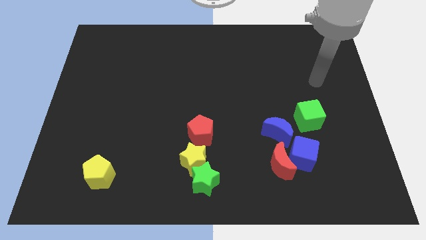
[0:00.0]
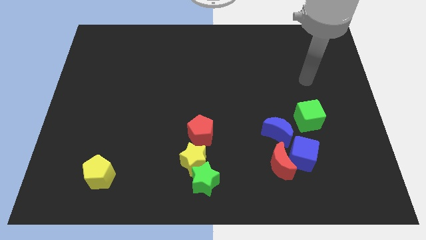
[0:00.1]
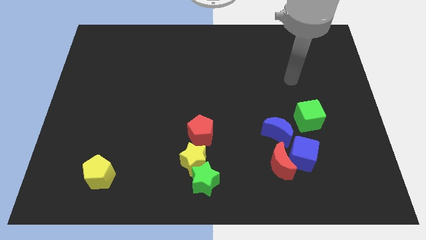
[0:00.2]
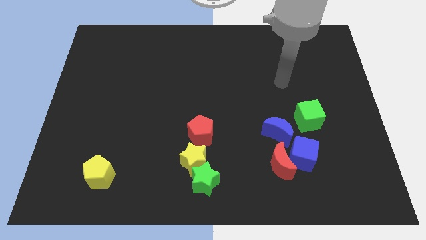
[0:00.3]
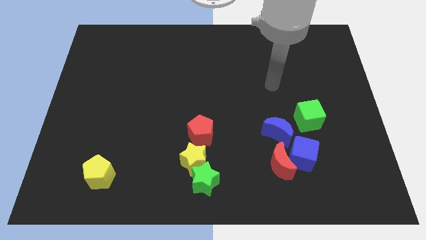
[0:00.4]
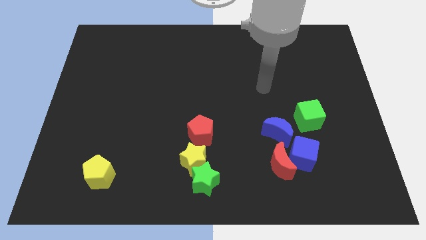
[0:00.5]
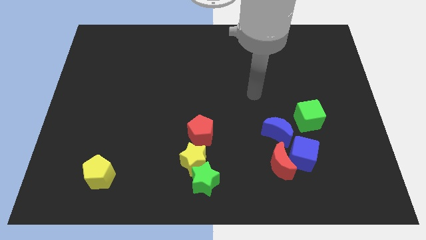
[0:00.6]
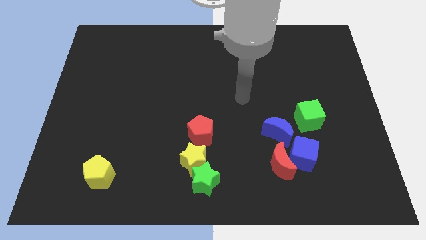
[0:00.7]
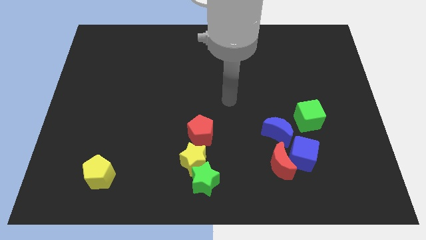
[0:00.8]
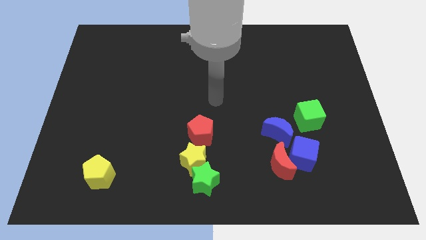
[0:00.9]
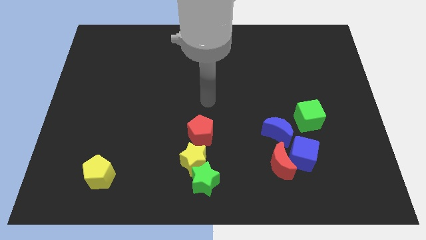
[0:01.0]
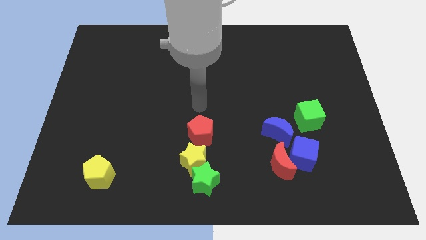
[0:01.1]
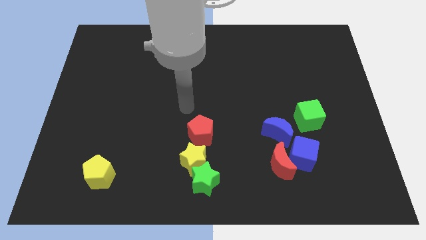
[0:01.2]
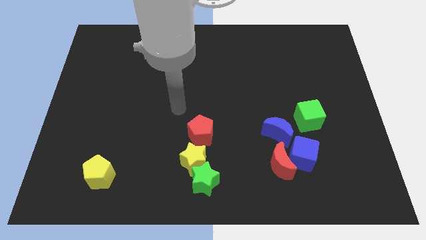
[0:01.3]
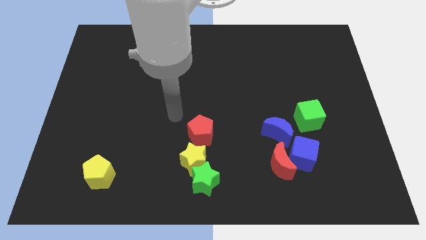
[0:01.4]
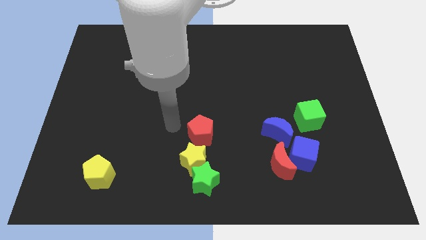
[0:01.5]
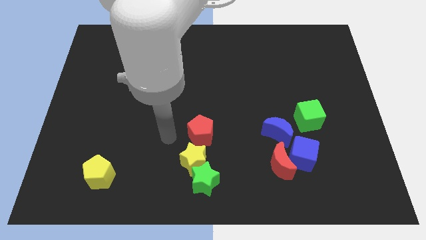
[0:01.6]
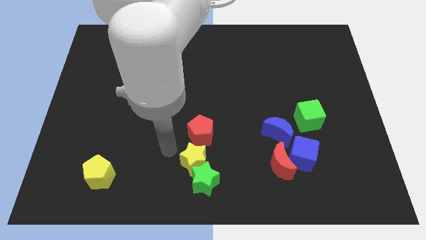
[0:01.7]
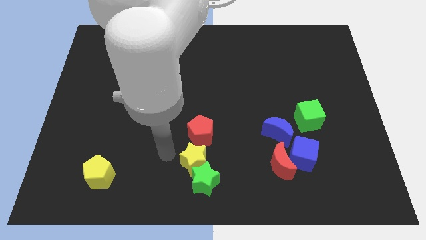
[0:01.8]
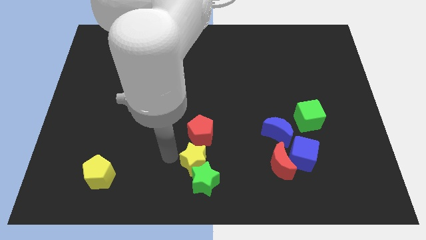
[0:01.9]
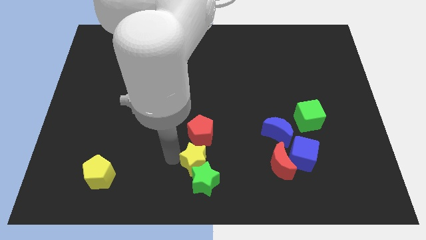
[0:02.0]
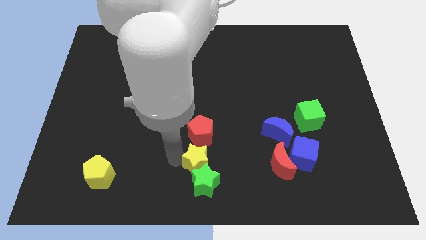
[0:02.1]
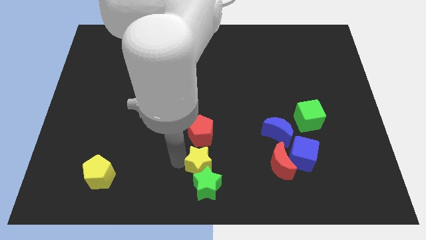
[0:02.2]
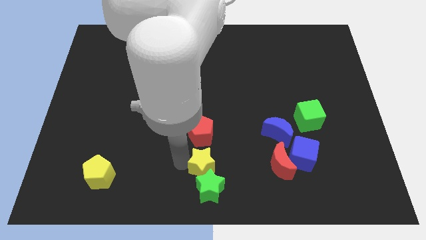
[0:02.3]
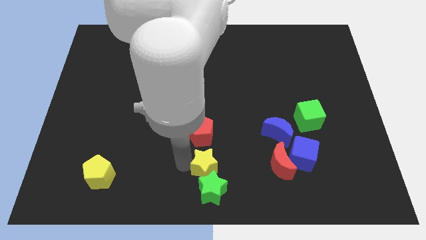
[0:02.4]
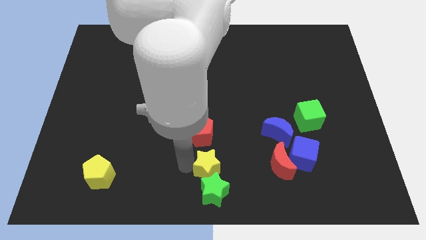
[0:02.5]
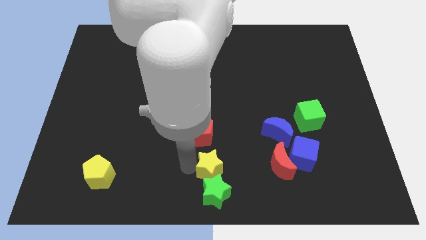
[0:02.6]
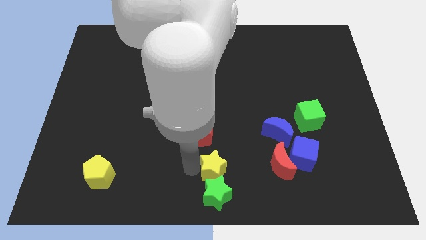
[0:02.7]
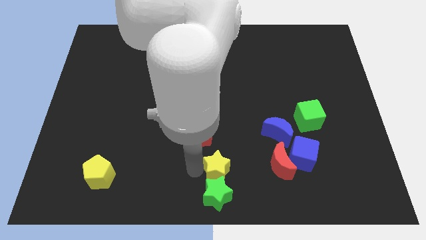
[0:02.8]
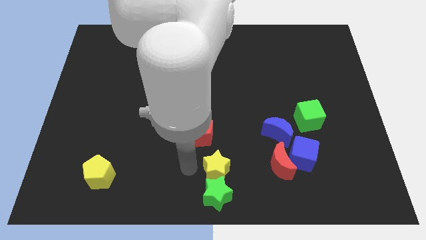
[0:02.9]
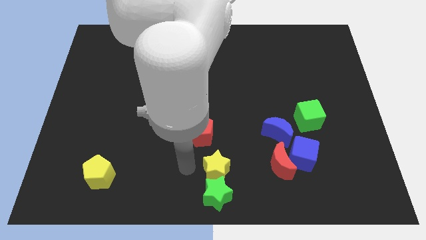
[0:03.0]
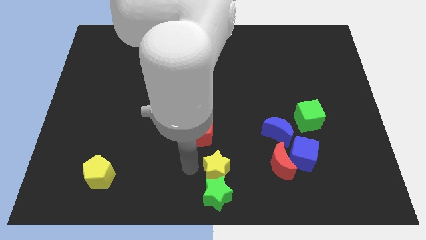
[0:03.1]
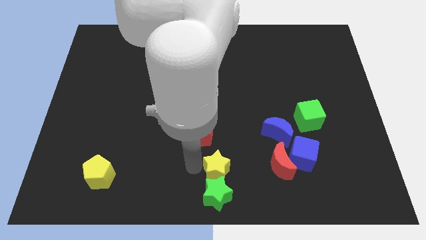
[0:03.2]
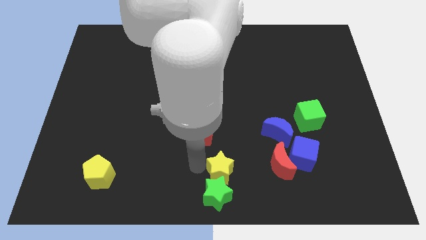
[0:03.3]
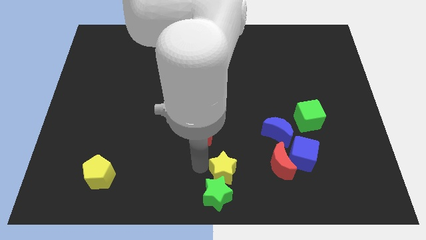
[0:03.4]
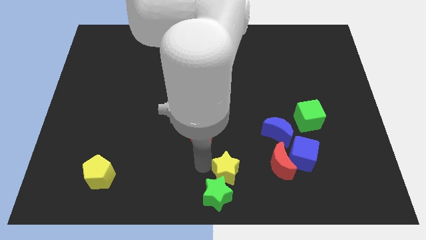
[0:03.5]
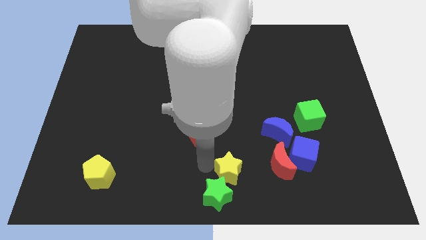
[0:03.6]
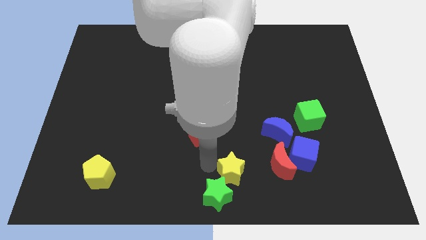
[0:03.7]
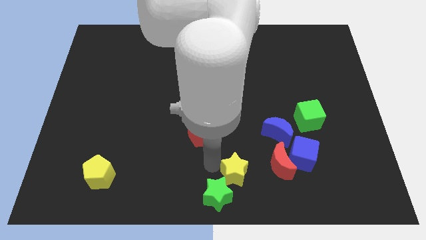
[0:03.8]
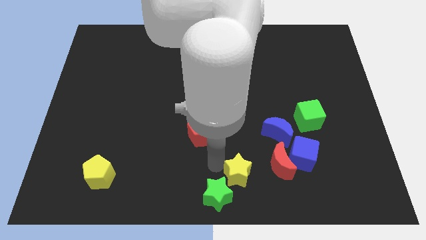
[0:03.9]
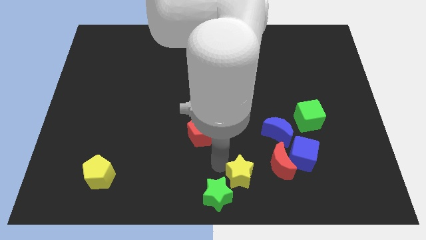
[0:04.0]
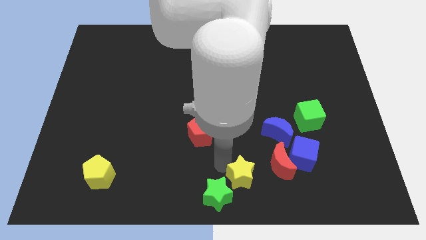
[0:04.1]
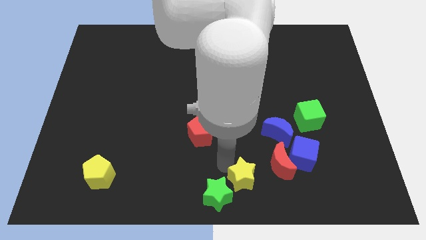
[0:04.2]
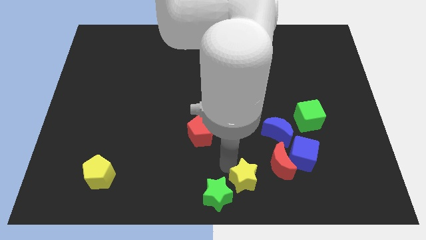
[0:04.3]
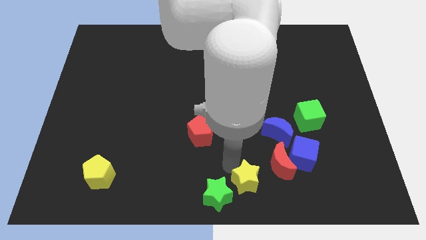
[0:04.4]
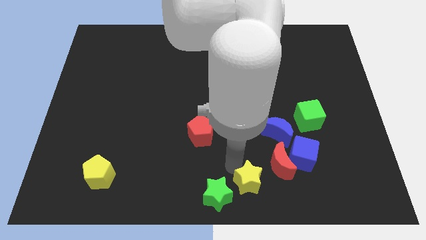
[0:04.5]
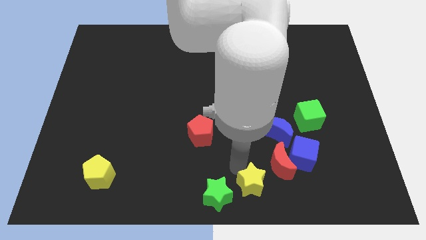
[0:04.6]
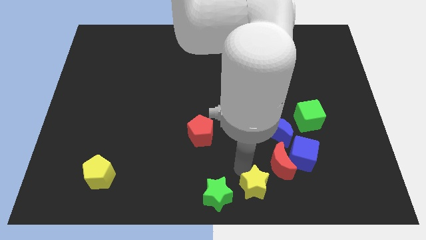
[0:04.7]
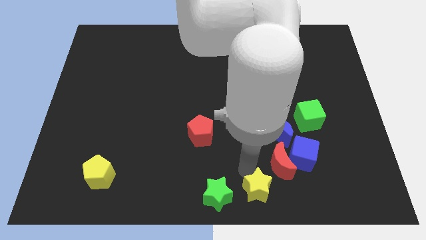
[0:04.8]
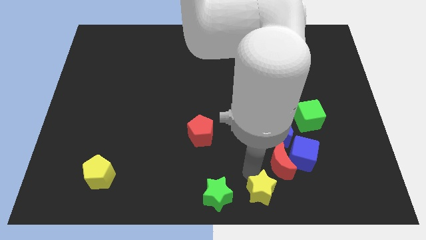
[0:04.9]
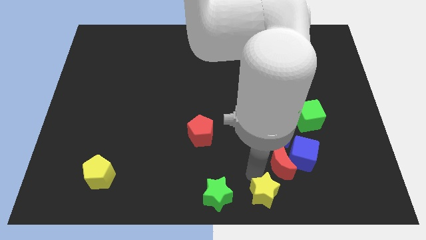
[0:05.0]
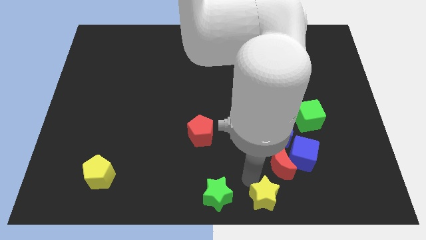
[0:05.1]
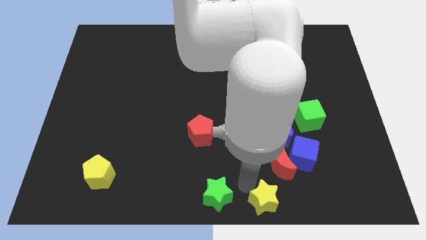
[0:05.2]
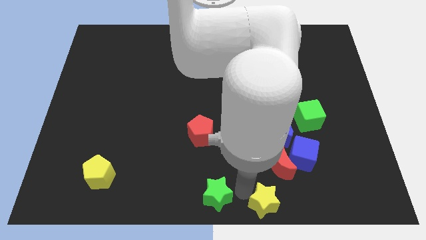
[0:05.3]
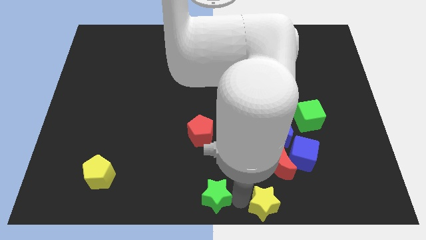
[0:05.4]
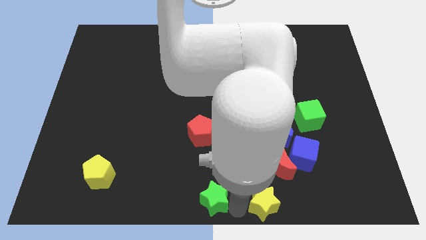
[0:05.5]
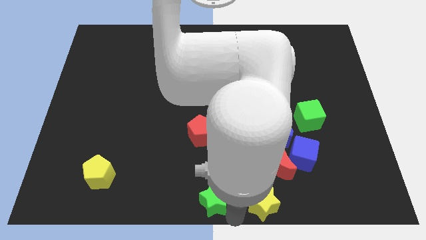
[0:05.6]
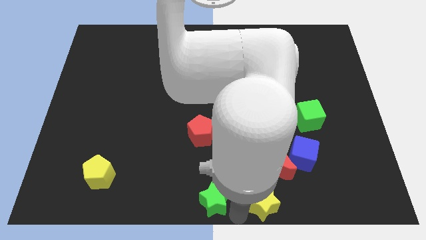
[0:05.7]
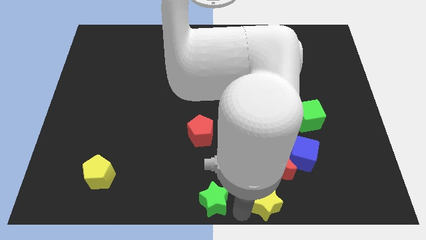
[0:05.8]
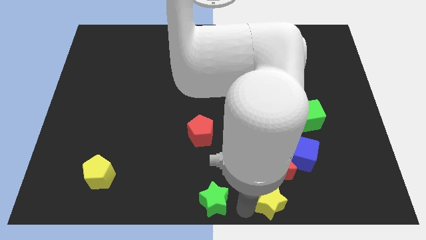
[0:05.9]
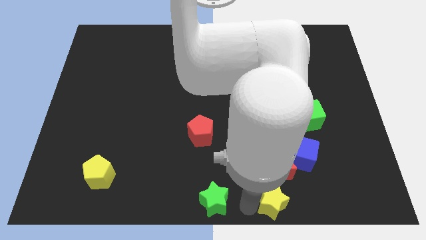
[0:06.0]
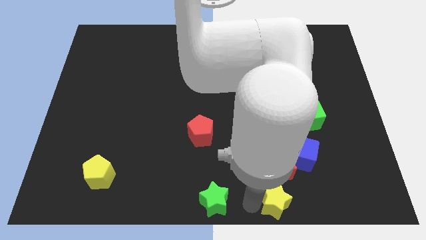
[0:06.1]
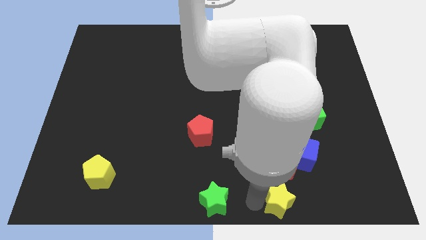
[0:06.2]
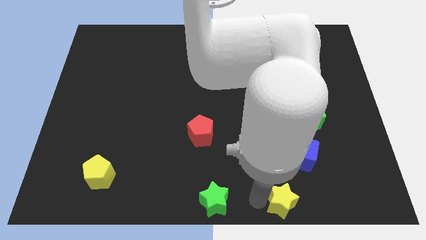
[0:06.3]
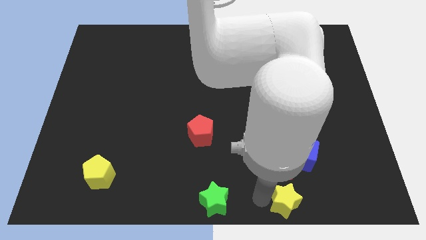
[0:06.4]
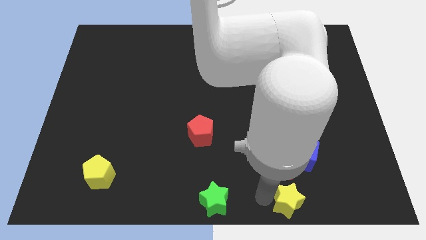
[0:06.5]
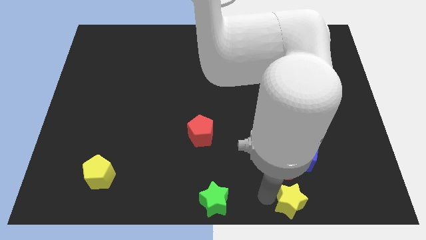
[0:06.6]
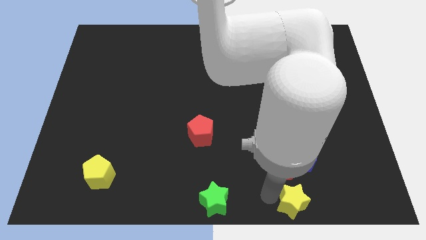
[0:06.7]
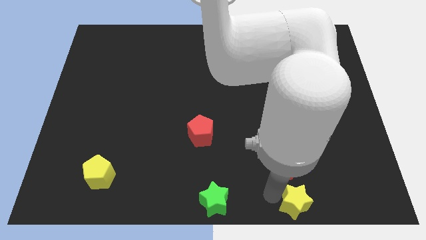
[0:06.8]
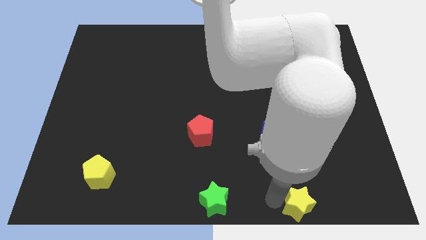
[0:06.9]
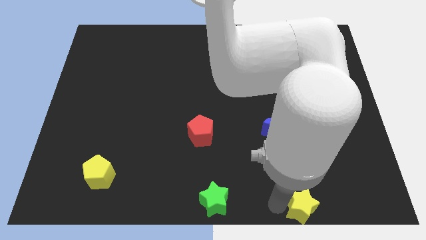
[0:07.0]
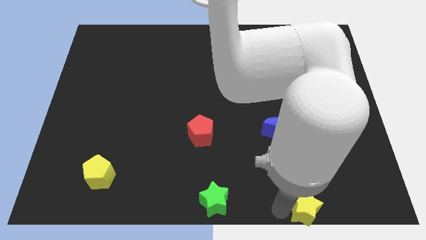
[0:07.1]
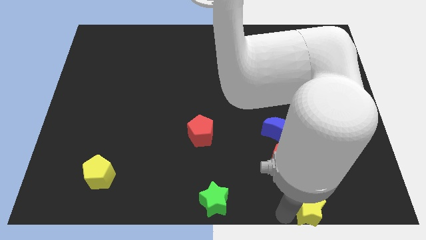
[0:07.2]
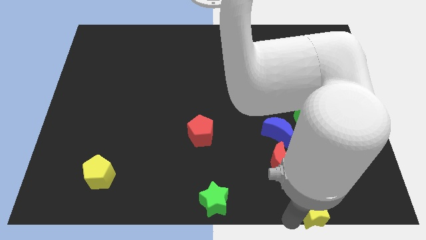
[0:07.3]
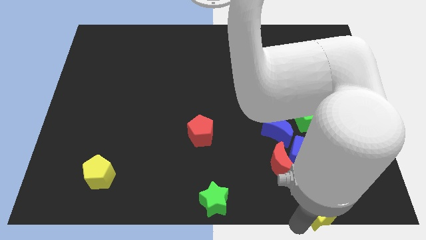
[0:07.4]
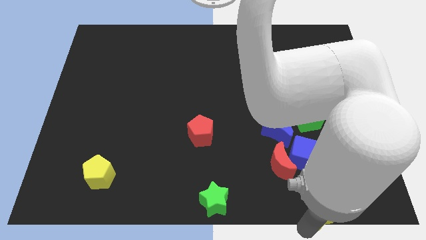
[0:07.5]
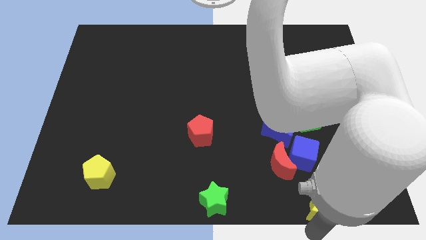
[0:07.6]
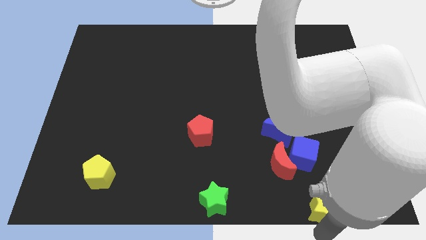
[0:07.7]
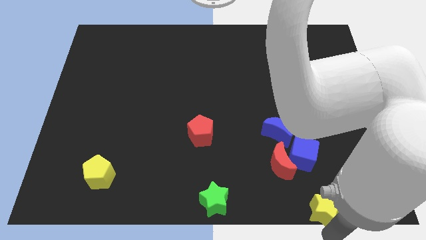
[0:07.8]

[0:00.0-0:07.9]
move the yellow star right

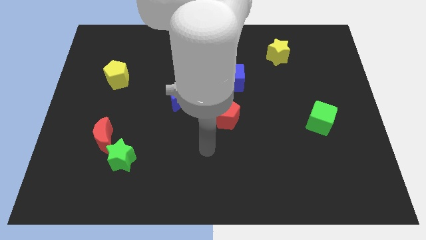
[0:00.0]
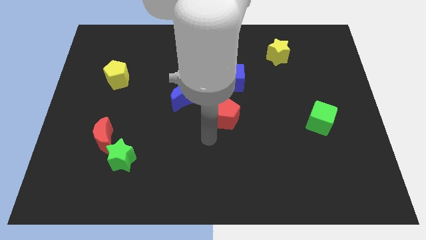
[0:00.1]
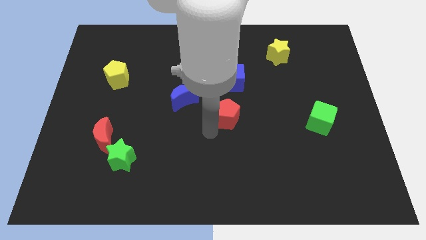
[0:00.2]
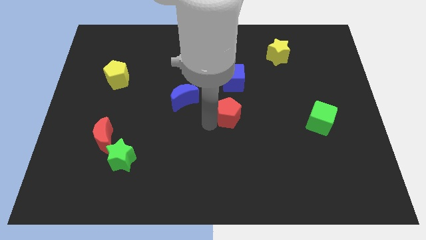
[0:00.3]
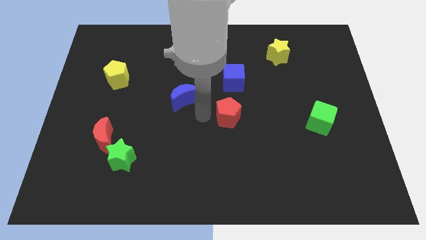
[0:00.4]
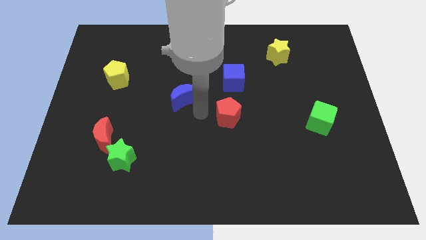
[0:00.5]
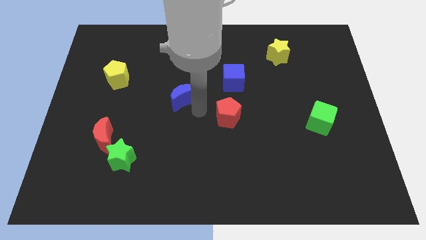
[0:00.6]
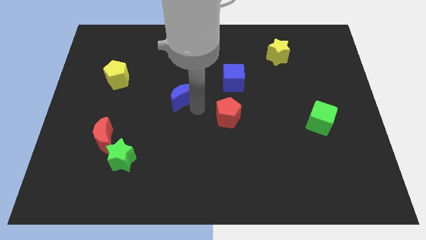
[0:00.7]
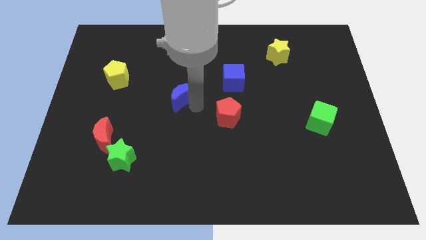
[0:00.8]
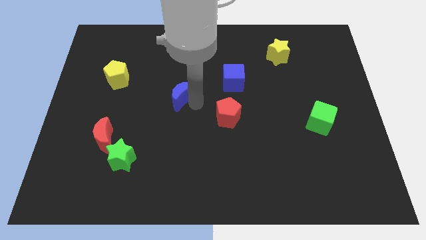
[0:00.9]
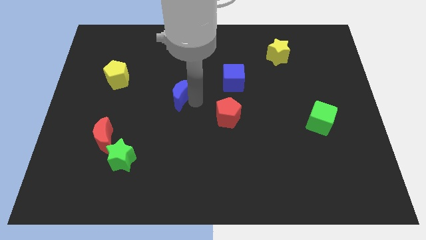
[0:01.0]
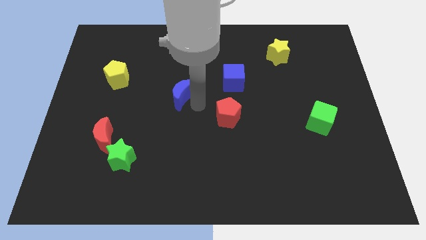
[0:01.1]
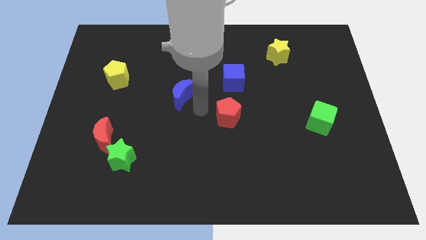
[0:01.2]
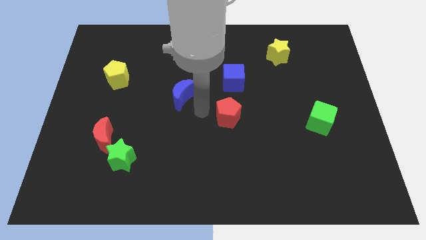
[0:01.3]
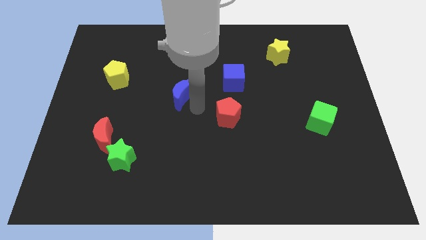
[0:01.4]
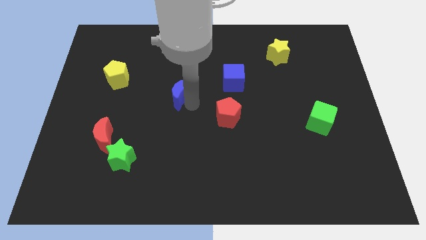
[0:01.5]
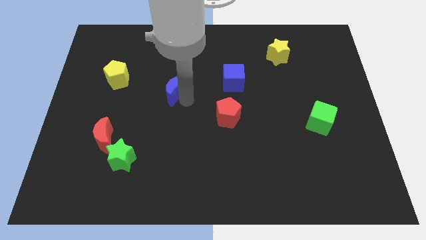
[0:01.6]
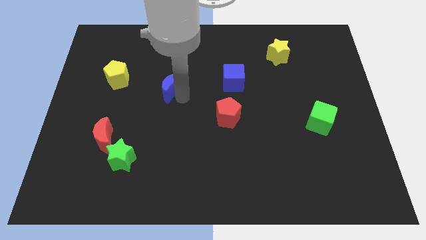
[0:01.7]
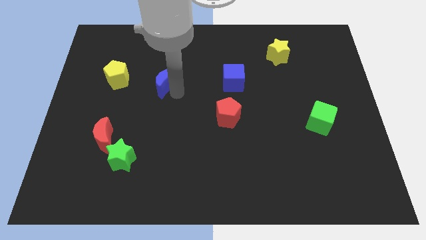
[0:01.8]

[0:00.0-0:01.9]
push the blue moon a bit up and to the left
